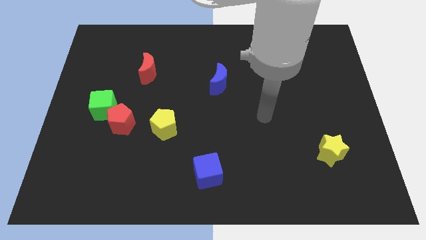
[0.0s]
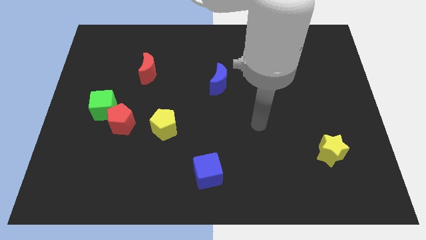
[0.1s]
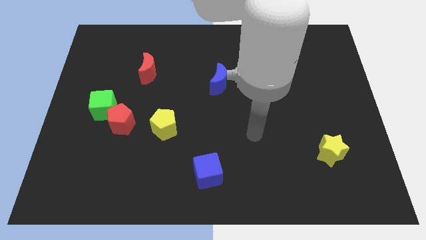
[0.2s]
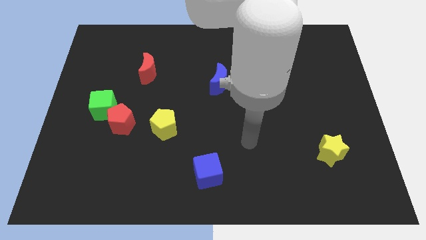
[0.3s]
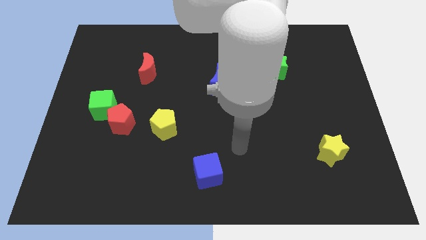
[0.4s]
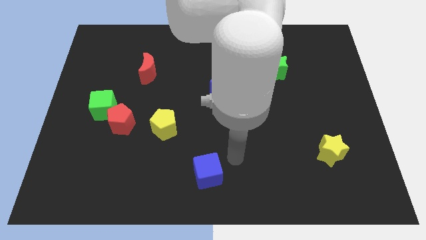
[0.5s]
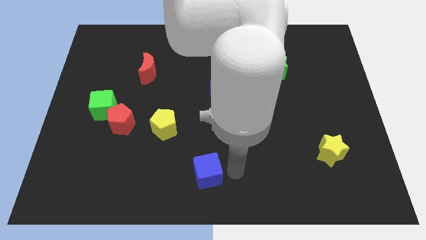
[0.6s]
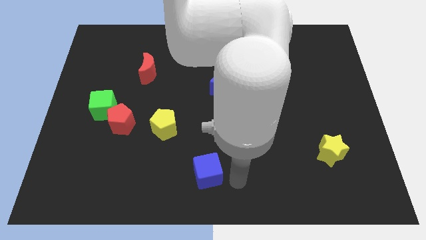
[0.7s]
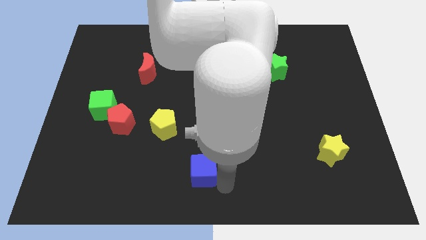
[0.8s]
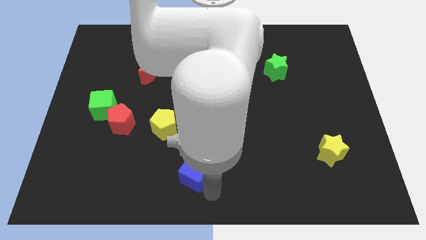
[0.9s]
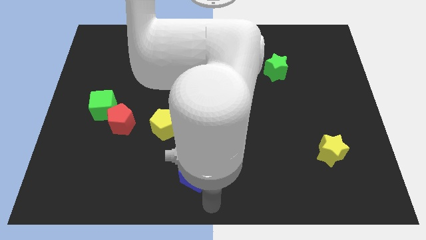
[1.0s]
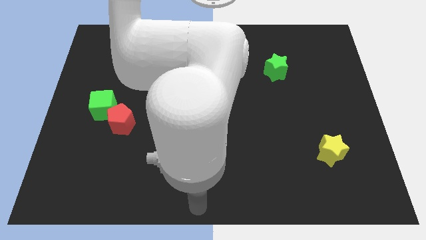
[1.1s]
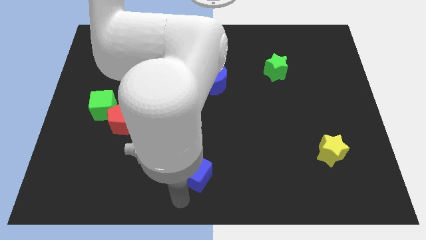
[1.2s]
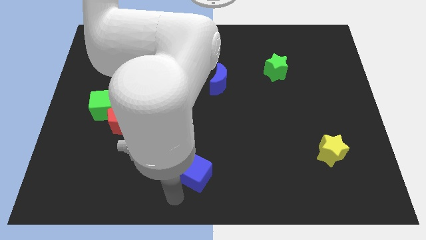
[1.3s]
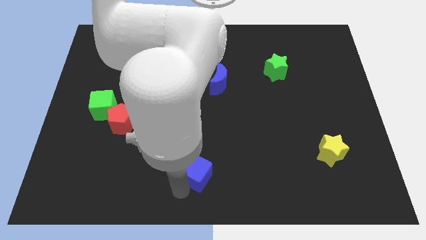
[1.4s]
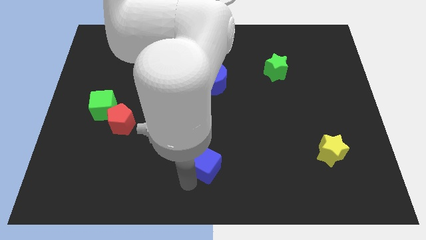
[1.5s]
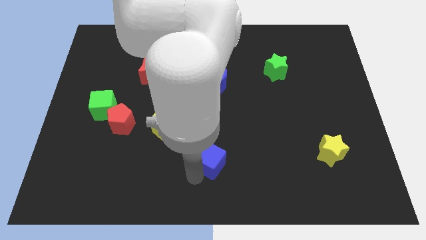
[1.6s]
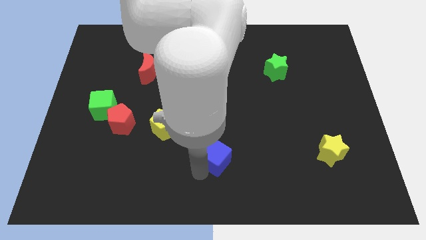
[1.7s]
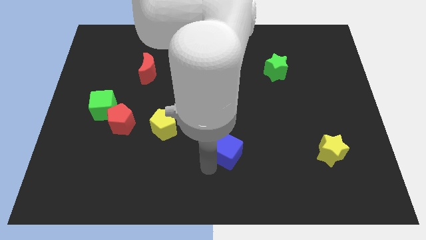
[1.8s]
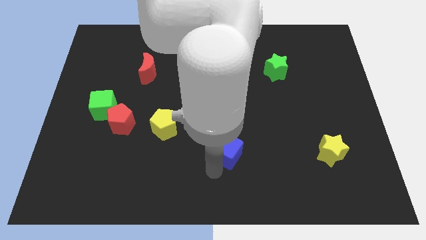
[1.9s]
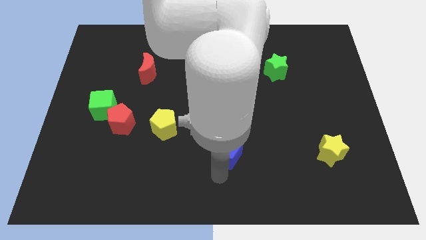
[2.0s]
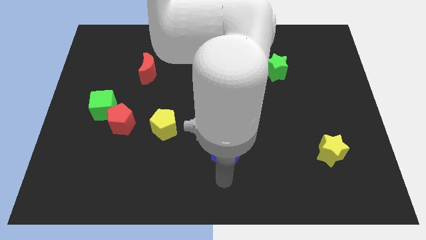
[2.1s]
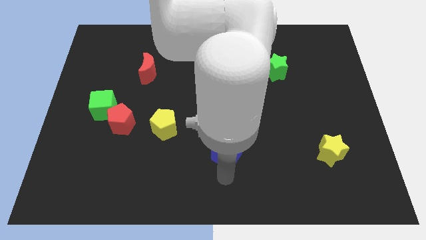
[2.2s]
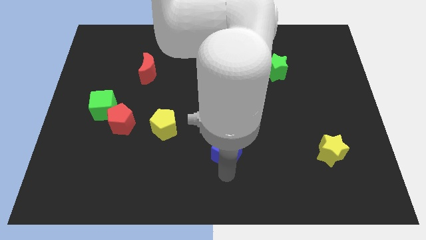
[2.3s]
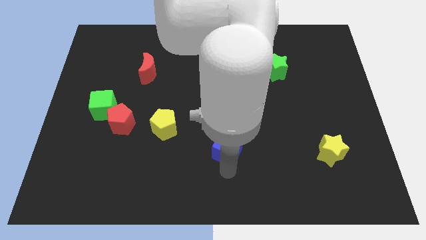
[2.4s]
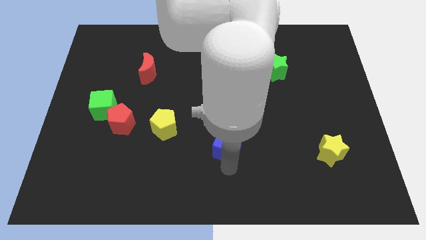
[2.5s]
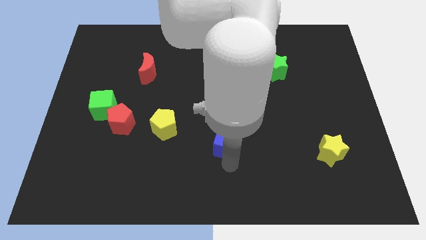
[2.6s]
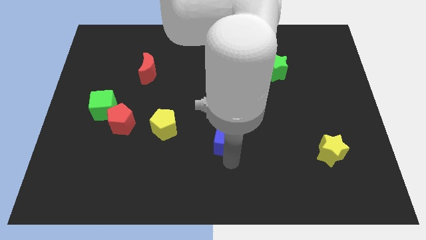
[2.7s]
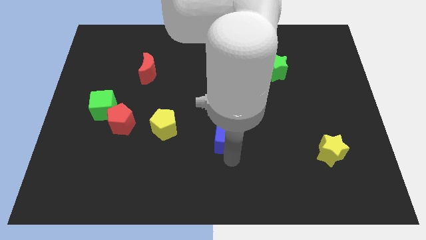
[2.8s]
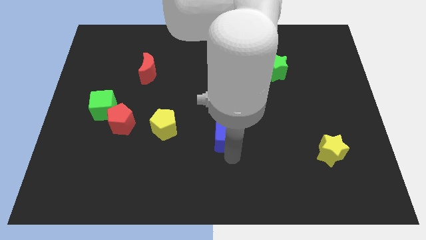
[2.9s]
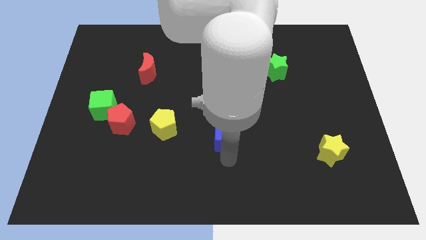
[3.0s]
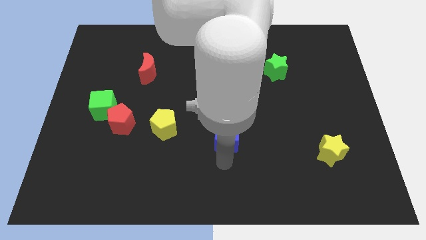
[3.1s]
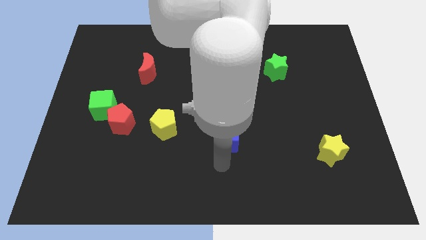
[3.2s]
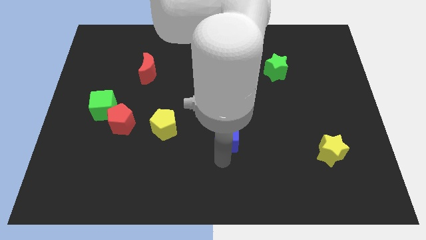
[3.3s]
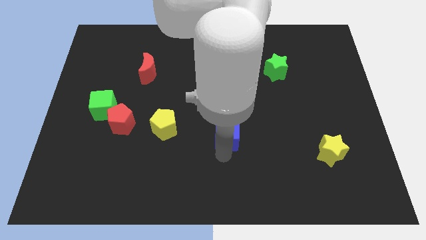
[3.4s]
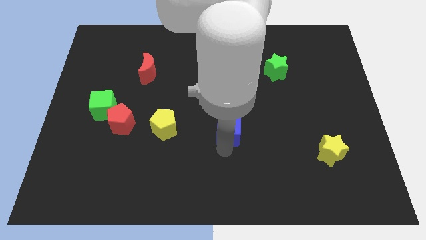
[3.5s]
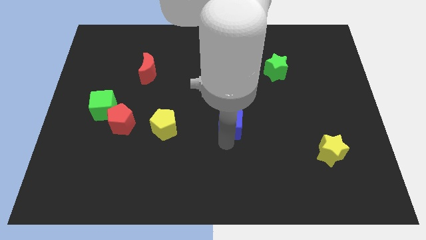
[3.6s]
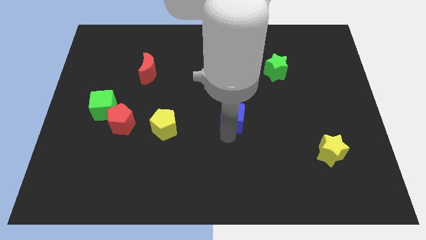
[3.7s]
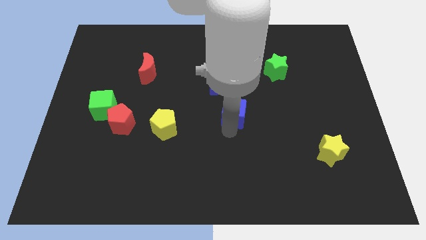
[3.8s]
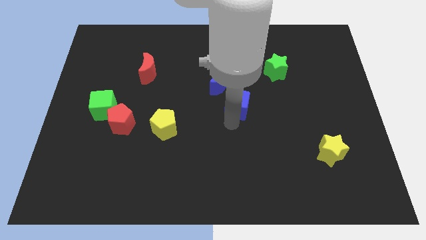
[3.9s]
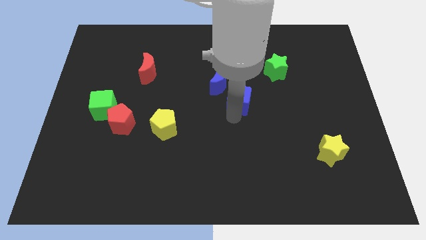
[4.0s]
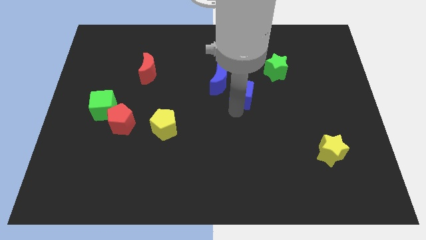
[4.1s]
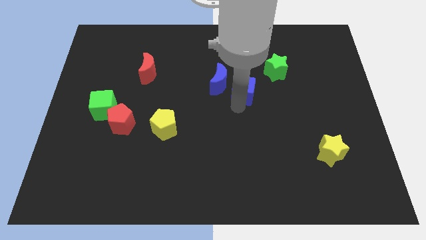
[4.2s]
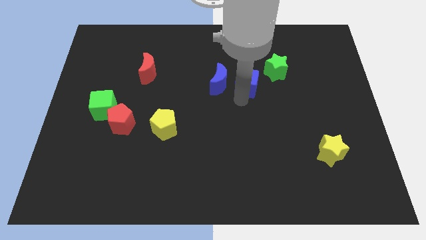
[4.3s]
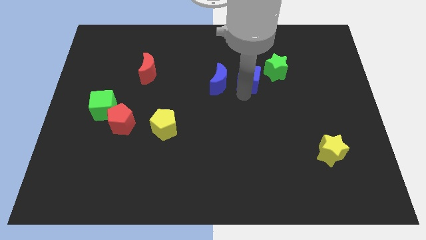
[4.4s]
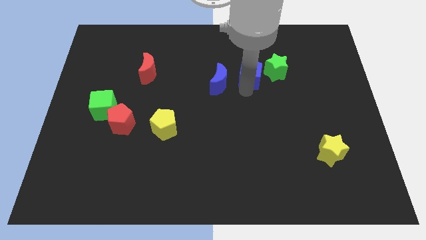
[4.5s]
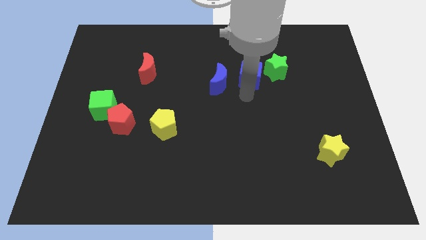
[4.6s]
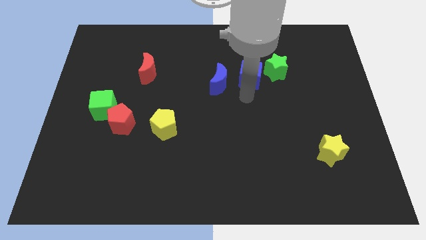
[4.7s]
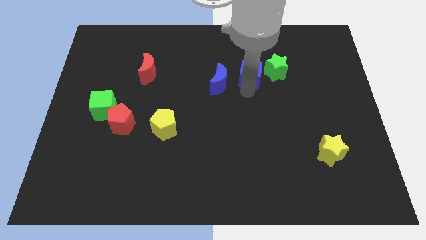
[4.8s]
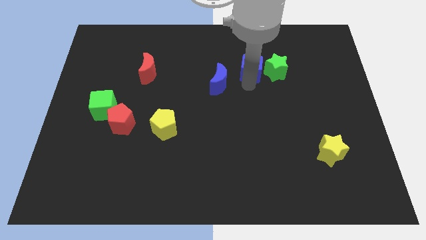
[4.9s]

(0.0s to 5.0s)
slide the blue cube to the top left side of the green star

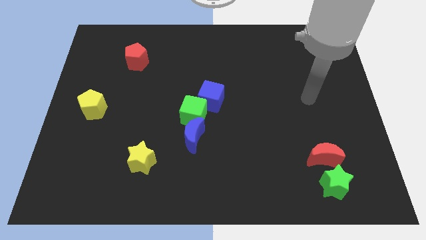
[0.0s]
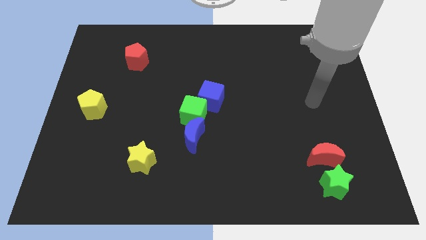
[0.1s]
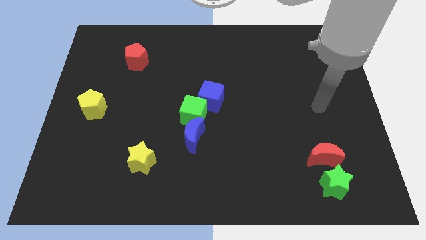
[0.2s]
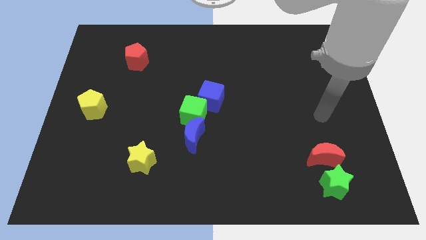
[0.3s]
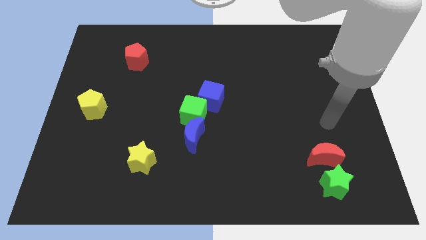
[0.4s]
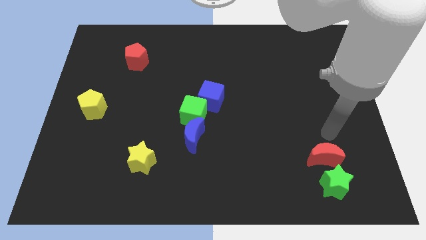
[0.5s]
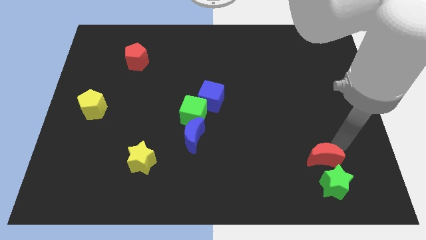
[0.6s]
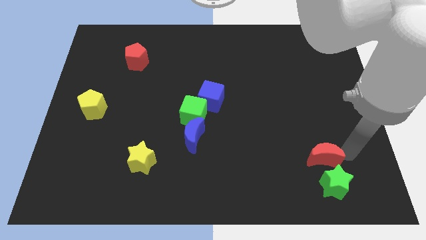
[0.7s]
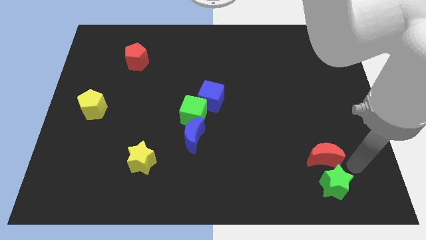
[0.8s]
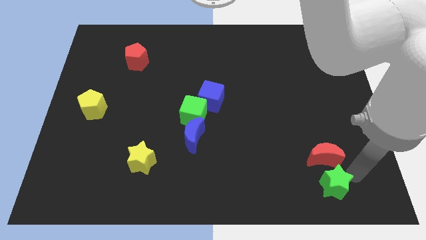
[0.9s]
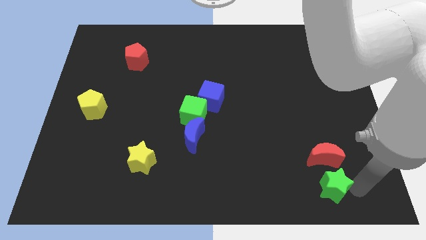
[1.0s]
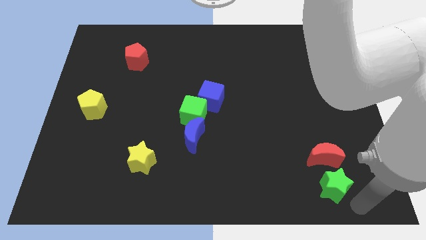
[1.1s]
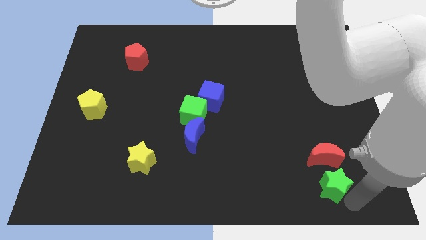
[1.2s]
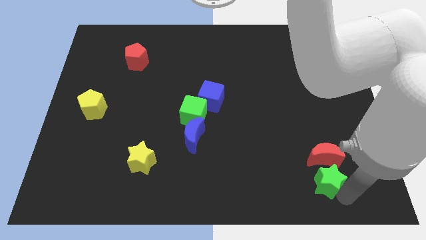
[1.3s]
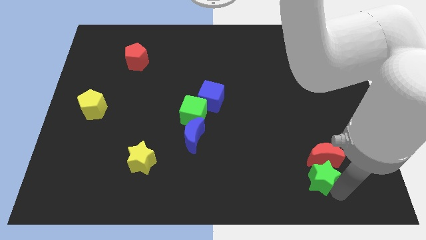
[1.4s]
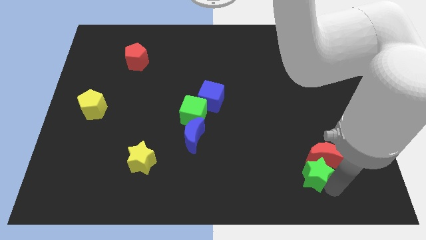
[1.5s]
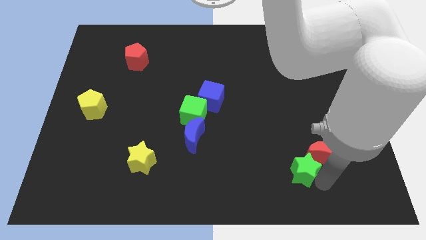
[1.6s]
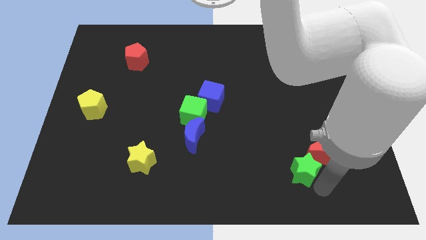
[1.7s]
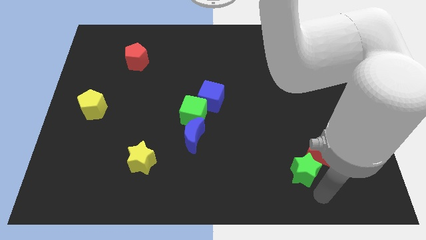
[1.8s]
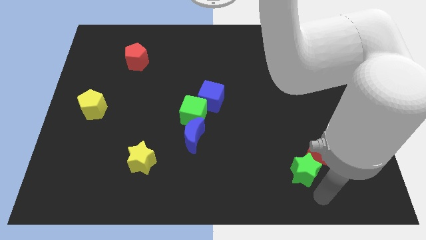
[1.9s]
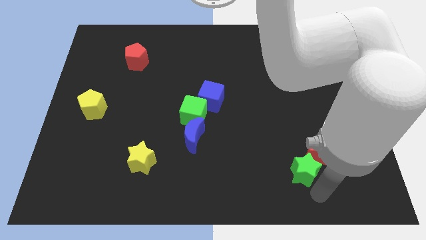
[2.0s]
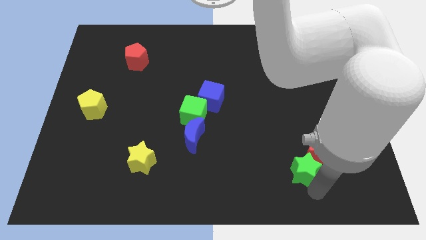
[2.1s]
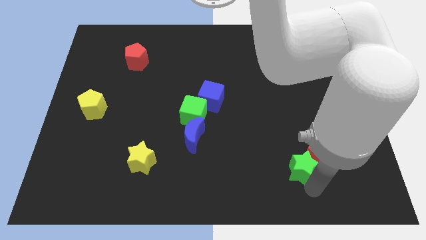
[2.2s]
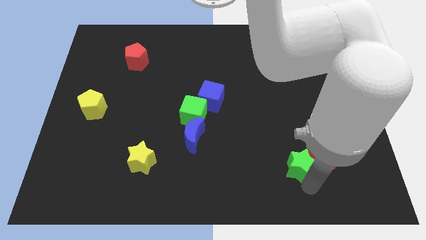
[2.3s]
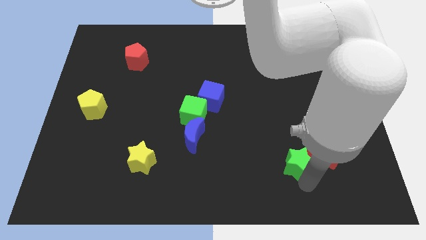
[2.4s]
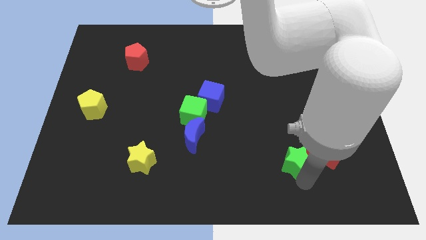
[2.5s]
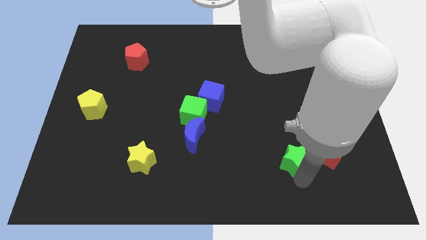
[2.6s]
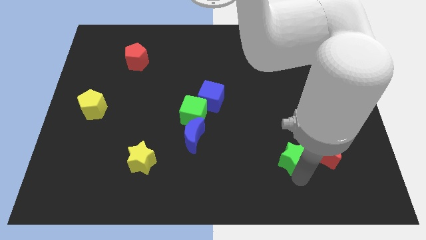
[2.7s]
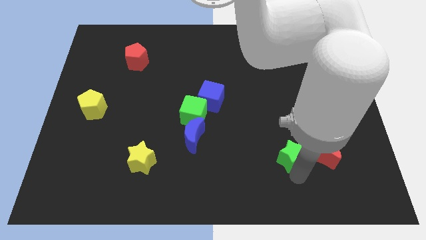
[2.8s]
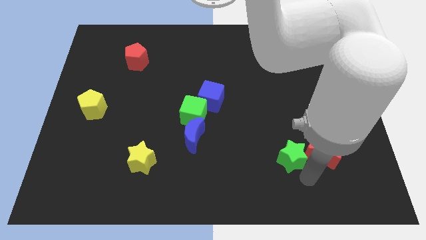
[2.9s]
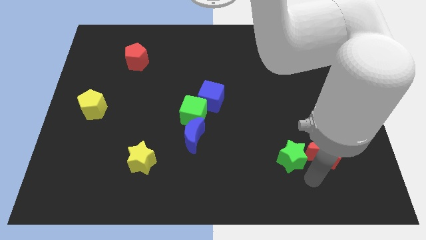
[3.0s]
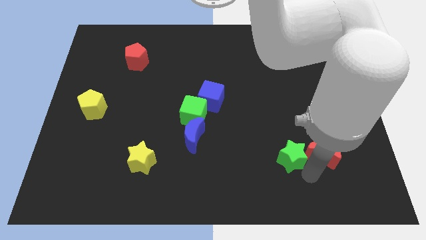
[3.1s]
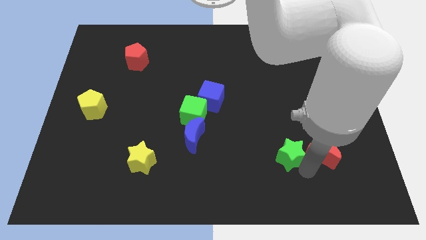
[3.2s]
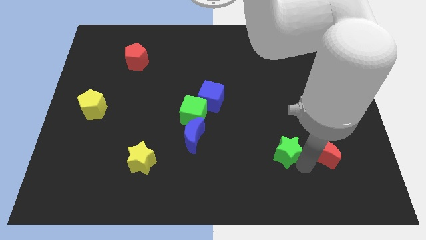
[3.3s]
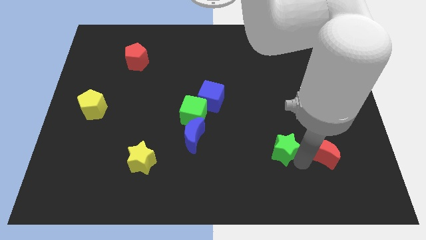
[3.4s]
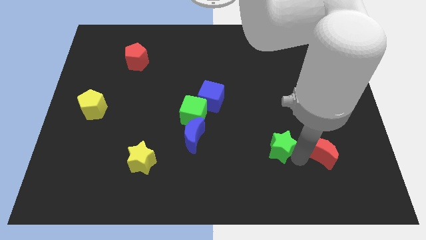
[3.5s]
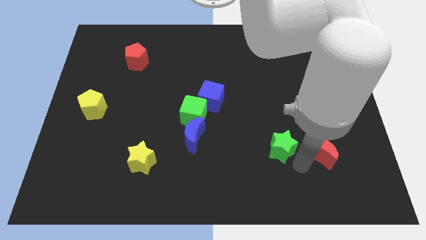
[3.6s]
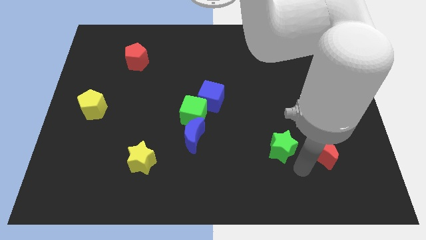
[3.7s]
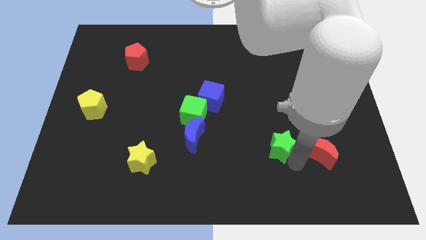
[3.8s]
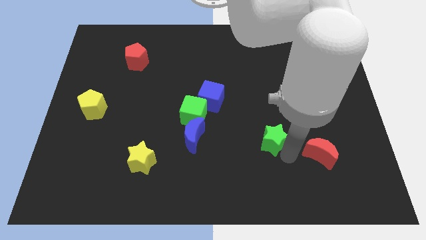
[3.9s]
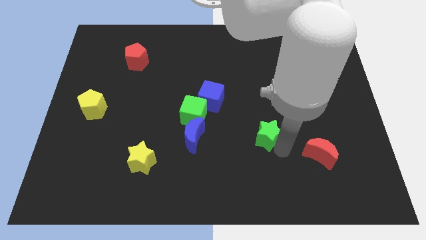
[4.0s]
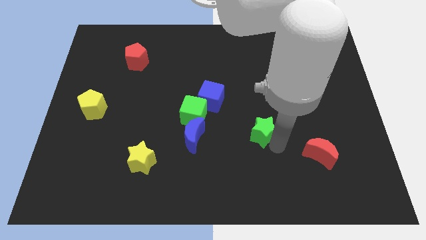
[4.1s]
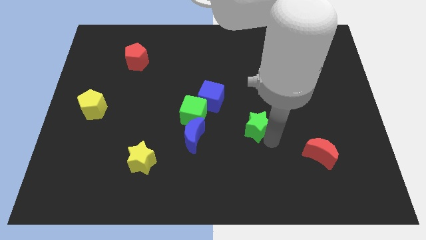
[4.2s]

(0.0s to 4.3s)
push the green star to the right of the green cube
